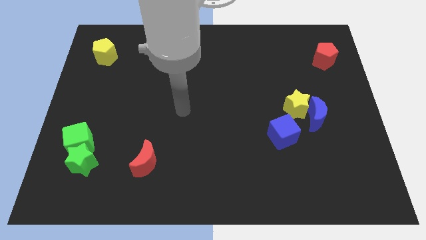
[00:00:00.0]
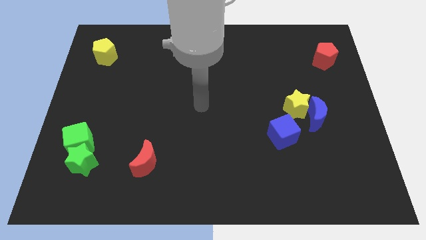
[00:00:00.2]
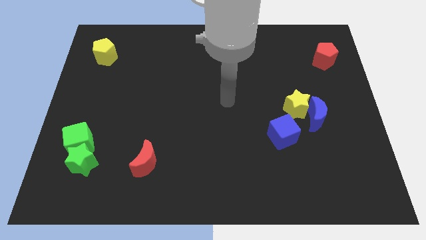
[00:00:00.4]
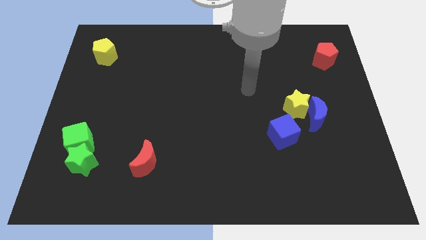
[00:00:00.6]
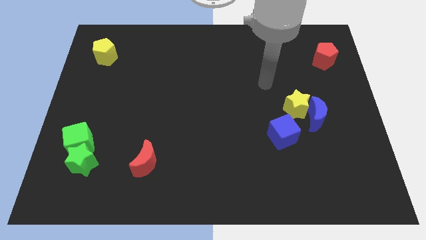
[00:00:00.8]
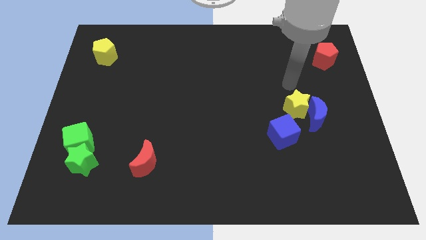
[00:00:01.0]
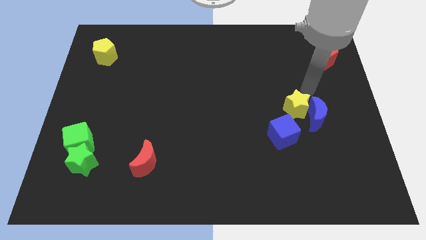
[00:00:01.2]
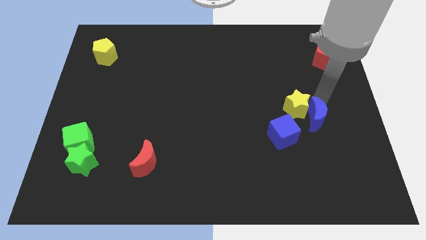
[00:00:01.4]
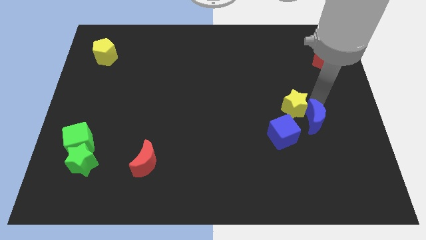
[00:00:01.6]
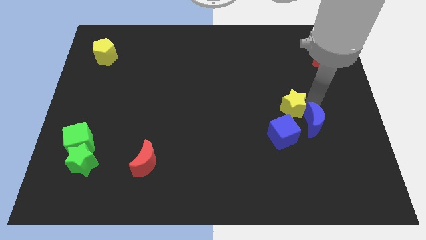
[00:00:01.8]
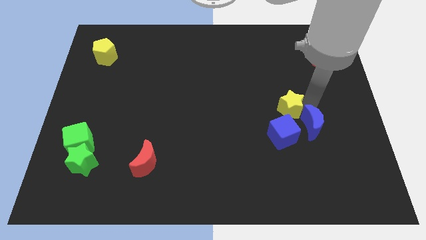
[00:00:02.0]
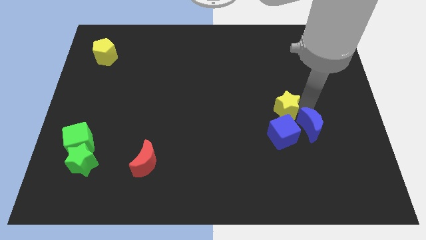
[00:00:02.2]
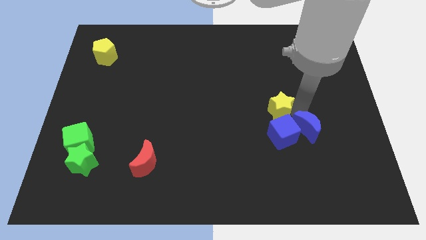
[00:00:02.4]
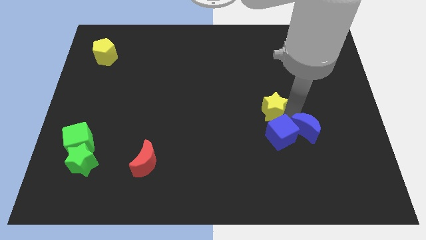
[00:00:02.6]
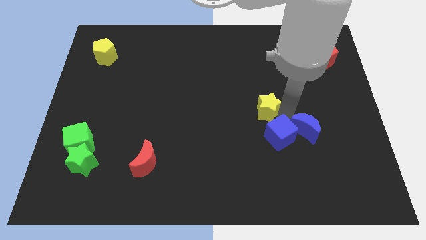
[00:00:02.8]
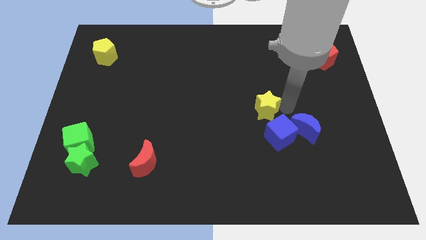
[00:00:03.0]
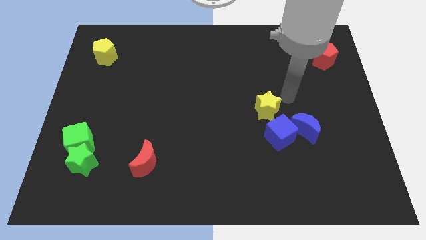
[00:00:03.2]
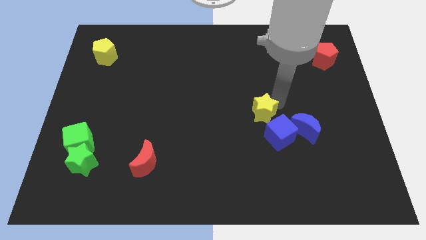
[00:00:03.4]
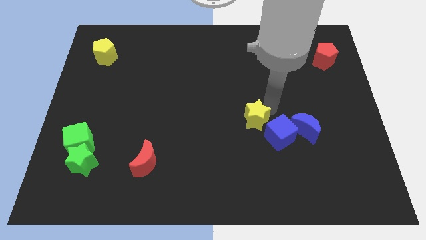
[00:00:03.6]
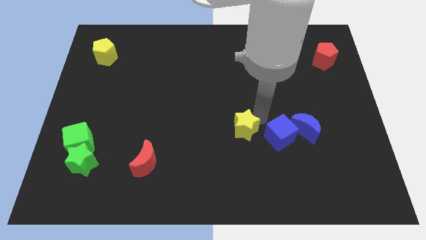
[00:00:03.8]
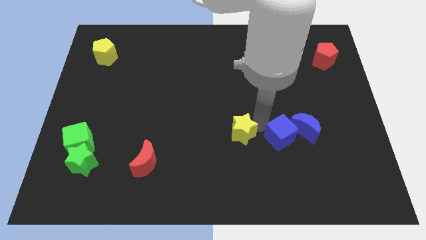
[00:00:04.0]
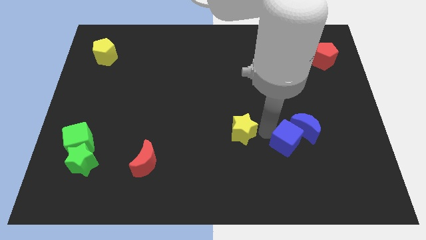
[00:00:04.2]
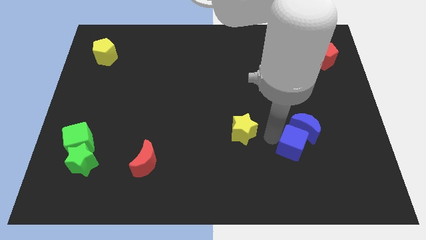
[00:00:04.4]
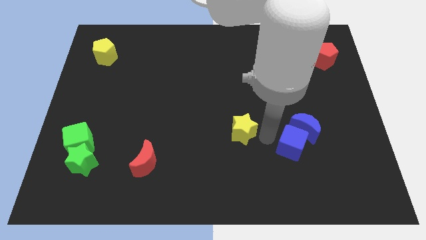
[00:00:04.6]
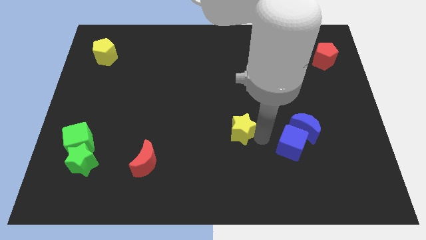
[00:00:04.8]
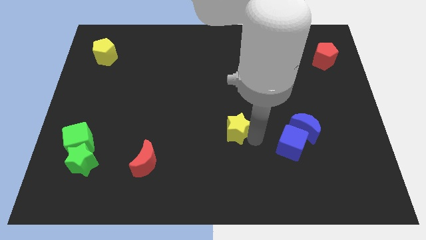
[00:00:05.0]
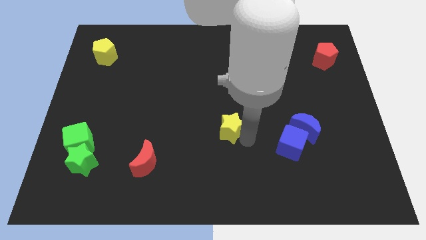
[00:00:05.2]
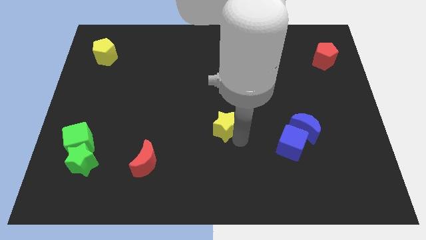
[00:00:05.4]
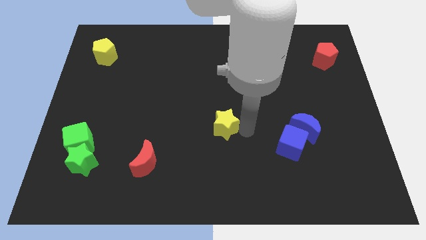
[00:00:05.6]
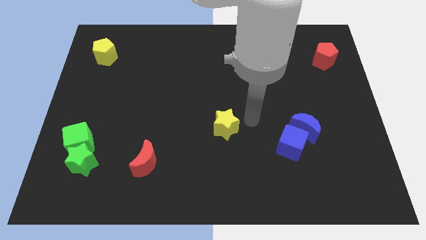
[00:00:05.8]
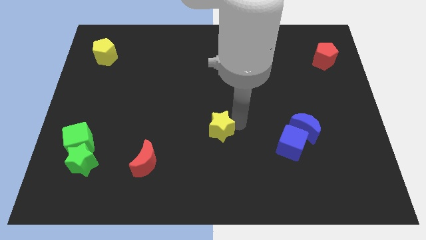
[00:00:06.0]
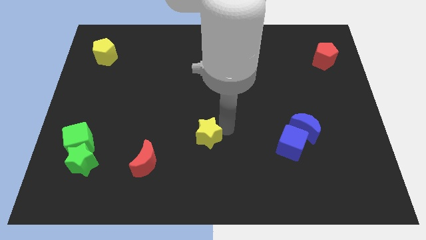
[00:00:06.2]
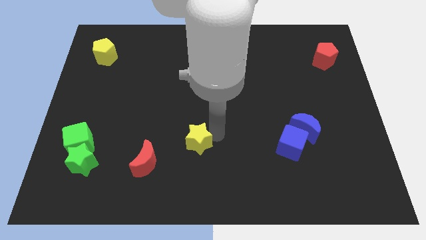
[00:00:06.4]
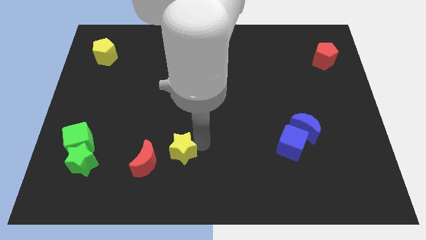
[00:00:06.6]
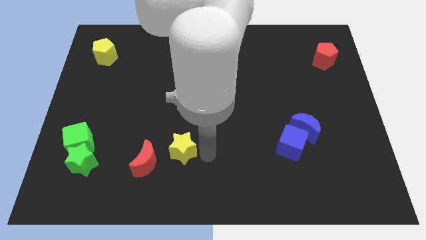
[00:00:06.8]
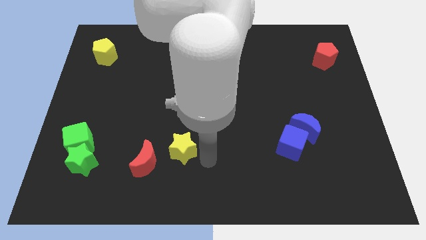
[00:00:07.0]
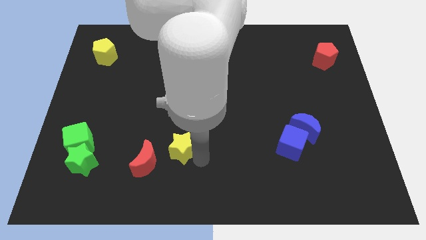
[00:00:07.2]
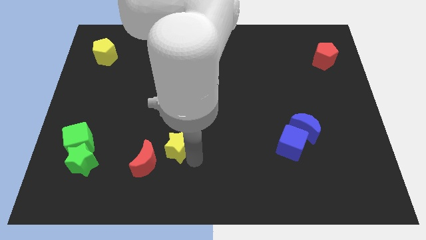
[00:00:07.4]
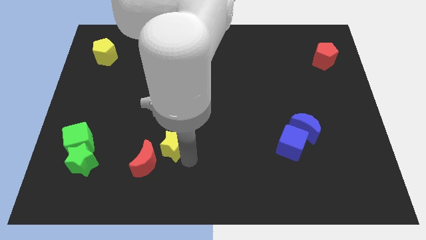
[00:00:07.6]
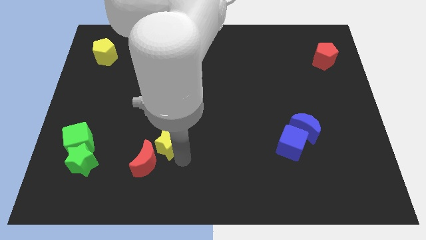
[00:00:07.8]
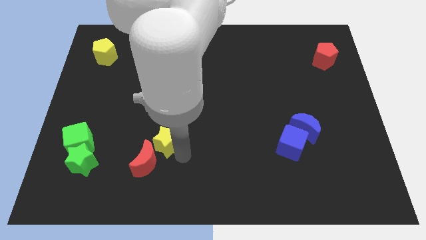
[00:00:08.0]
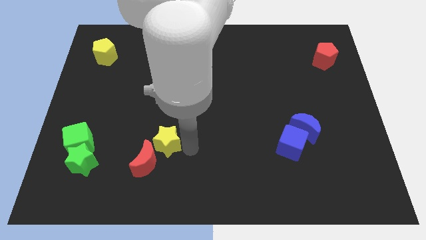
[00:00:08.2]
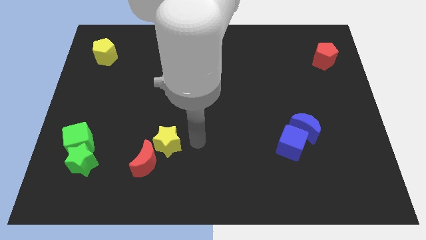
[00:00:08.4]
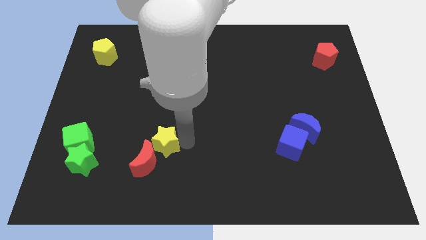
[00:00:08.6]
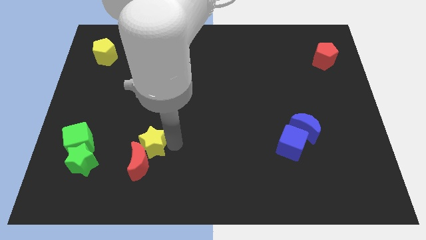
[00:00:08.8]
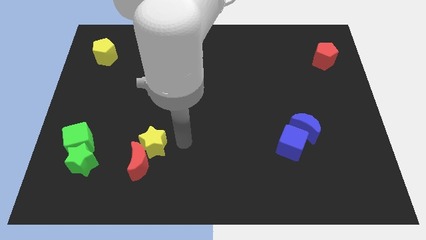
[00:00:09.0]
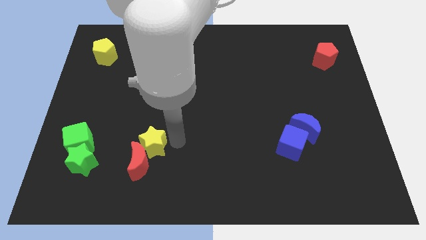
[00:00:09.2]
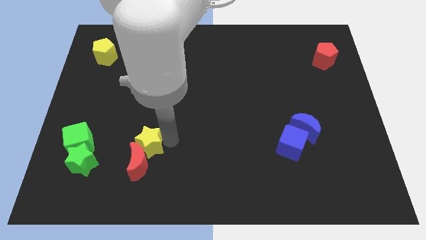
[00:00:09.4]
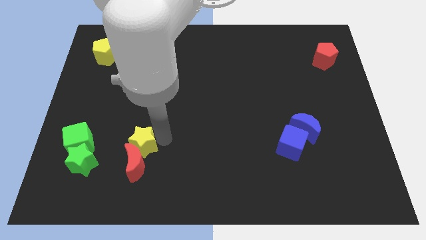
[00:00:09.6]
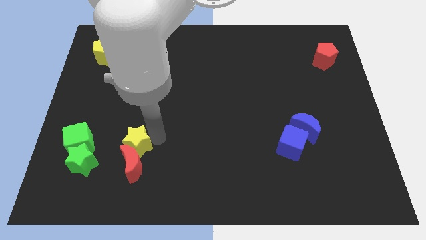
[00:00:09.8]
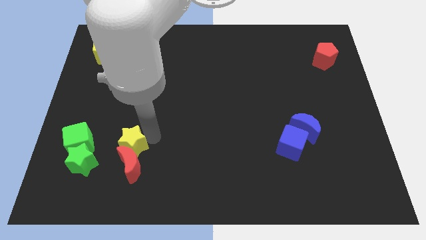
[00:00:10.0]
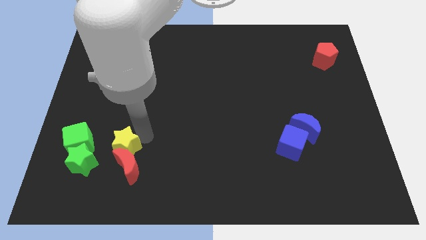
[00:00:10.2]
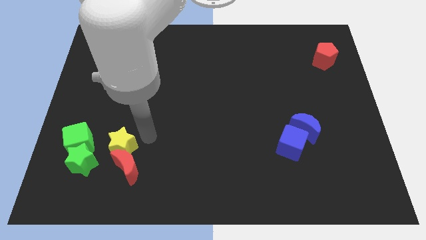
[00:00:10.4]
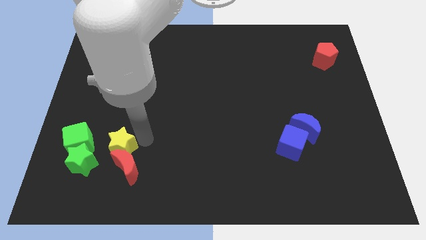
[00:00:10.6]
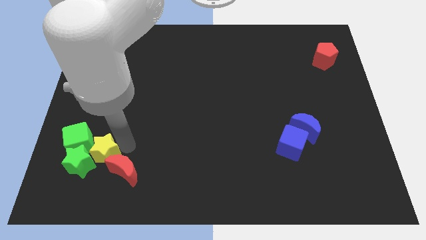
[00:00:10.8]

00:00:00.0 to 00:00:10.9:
push the yellow star next to the green star
